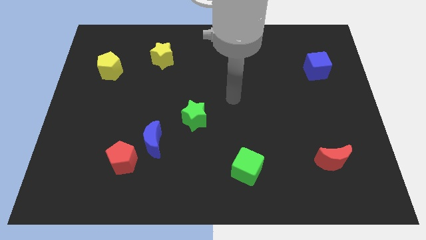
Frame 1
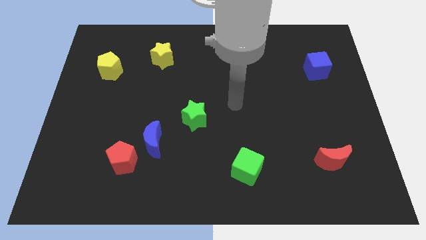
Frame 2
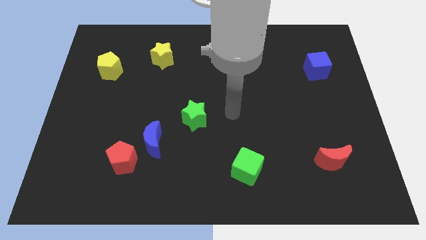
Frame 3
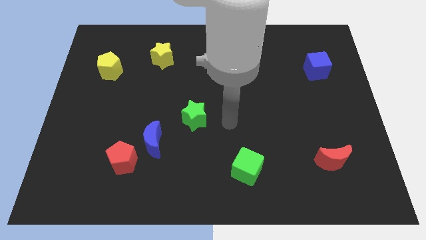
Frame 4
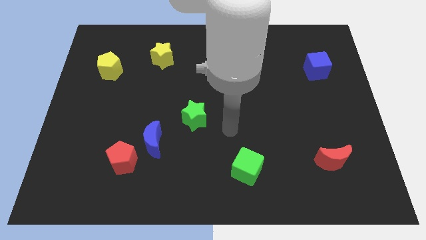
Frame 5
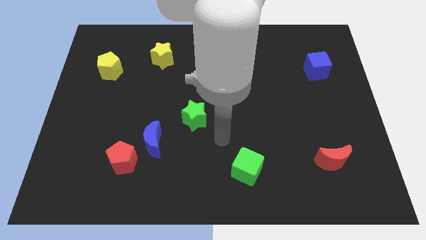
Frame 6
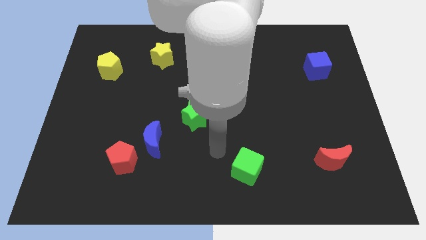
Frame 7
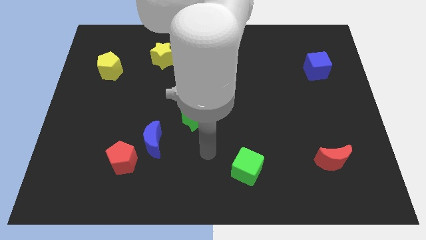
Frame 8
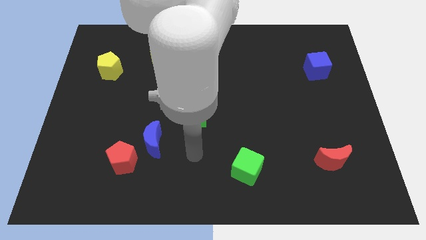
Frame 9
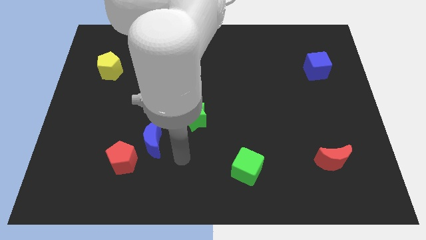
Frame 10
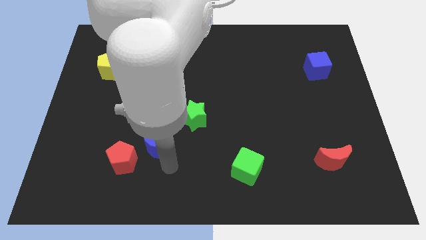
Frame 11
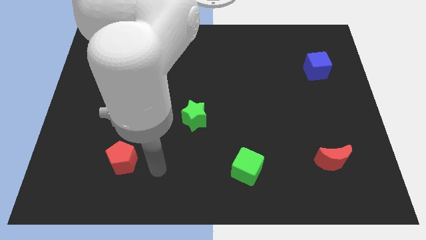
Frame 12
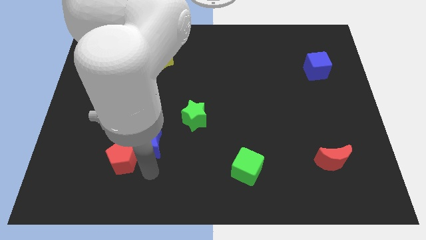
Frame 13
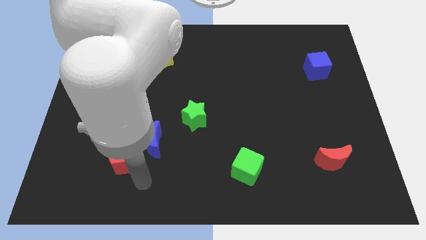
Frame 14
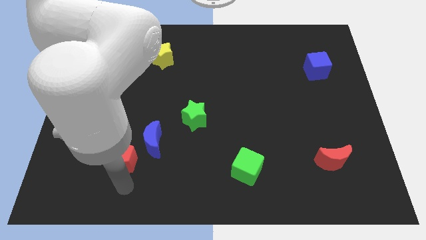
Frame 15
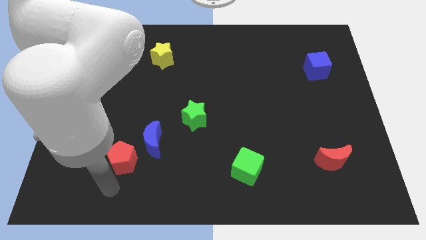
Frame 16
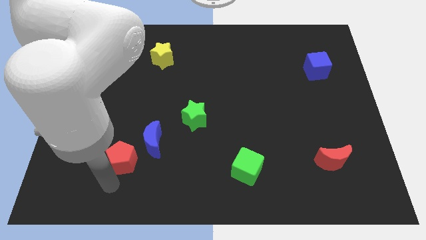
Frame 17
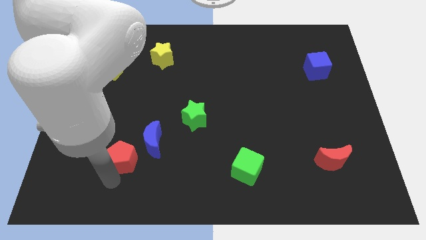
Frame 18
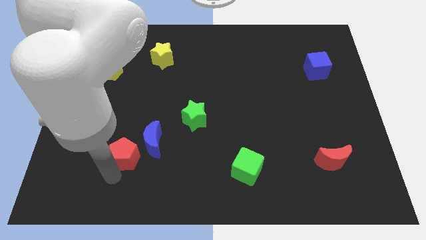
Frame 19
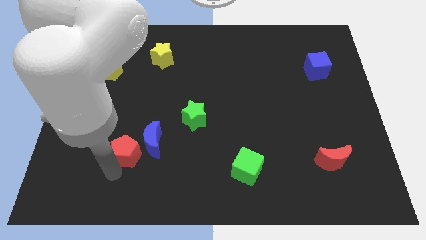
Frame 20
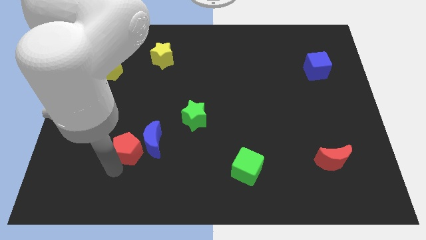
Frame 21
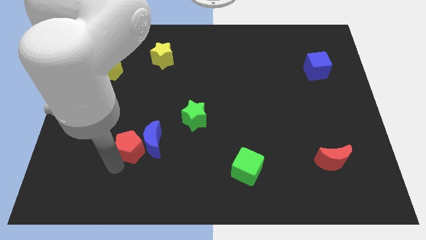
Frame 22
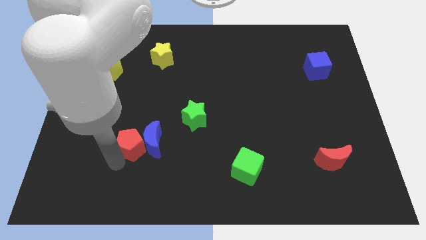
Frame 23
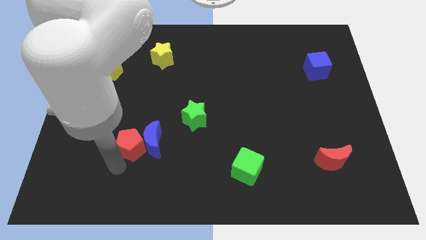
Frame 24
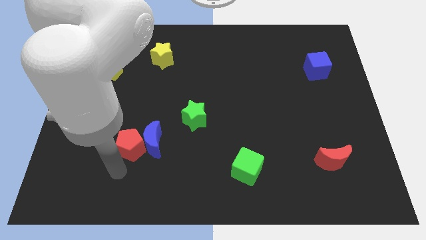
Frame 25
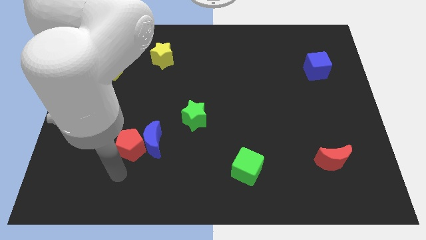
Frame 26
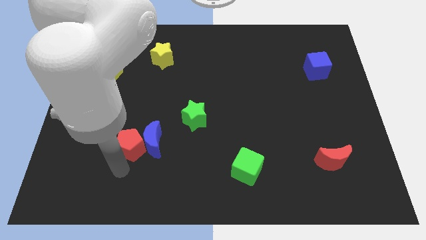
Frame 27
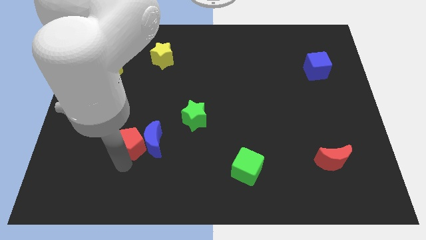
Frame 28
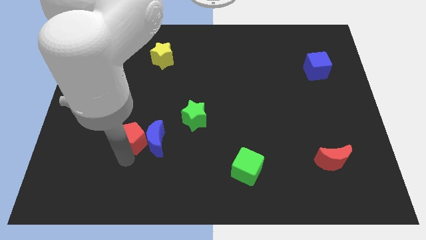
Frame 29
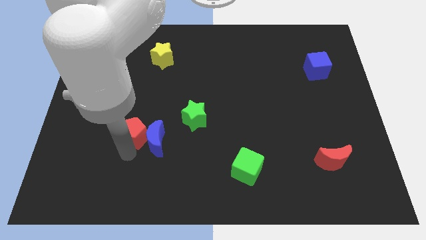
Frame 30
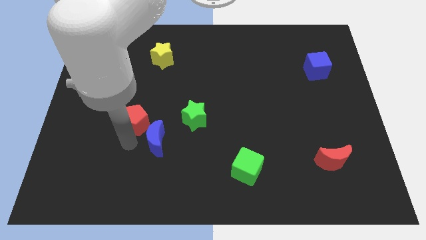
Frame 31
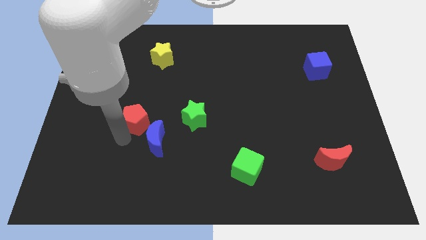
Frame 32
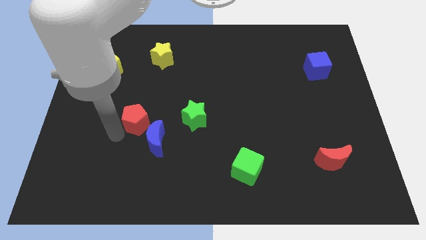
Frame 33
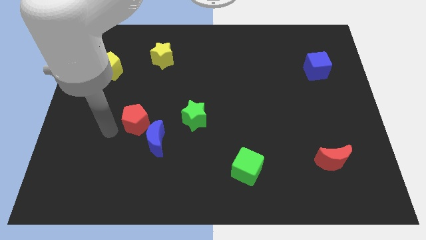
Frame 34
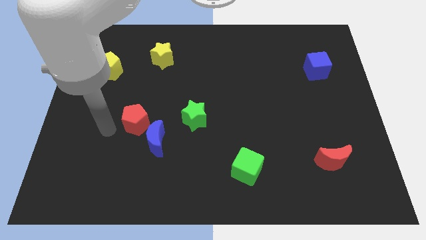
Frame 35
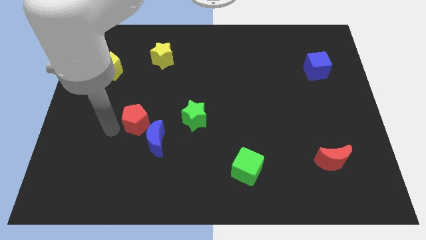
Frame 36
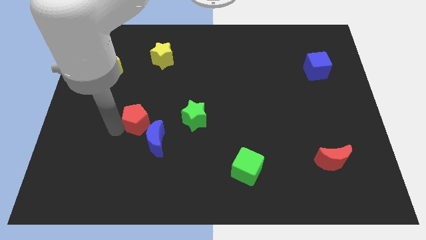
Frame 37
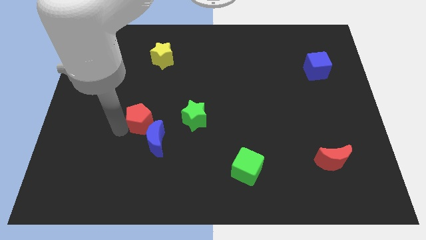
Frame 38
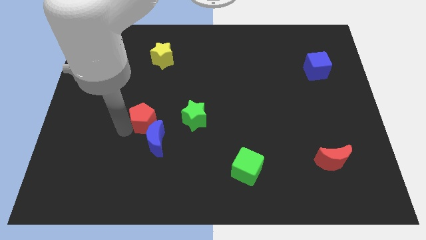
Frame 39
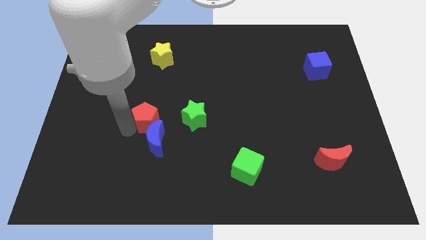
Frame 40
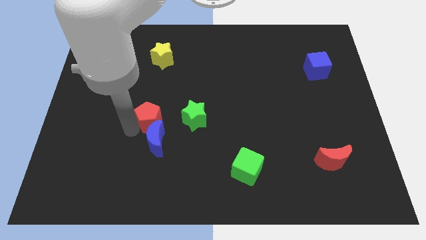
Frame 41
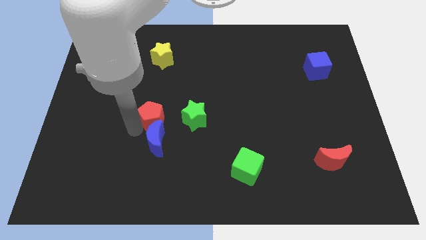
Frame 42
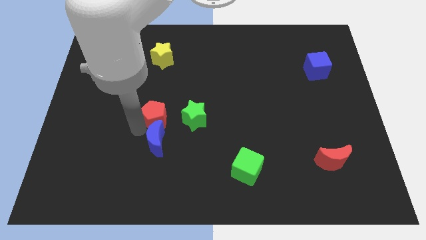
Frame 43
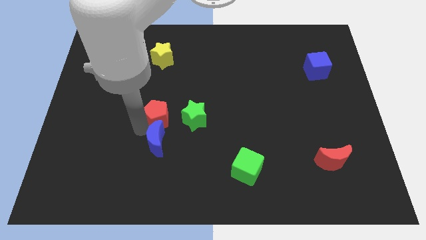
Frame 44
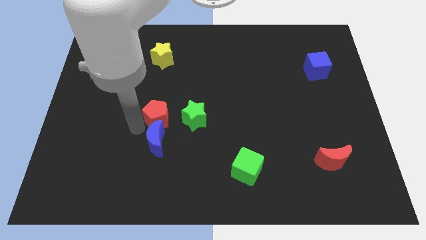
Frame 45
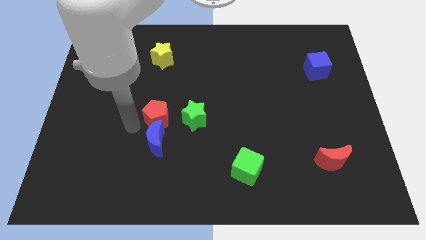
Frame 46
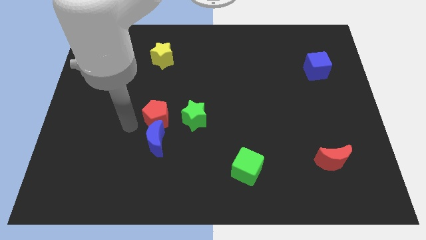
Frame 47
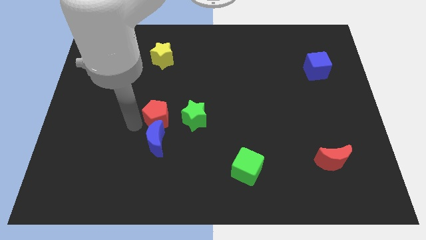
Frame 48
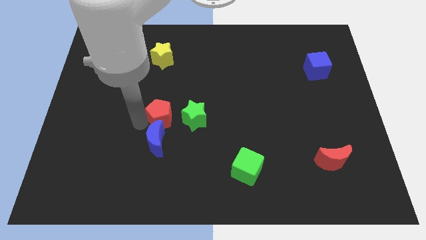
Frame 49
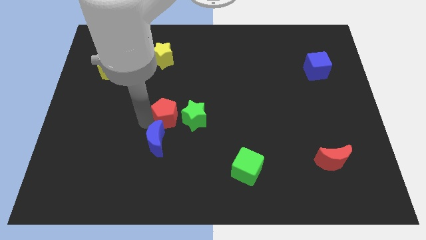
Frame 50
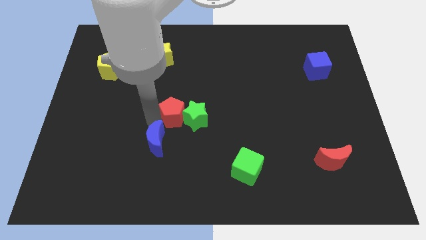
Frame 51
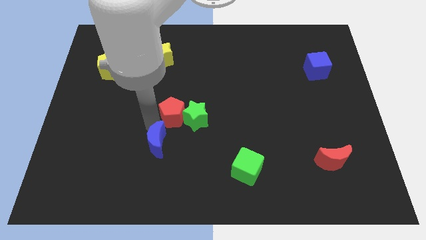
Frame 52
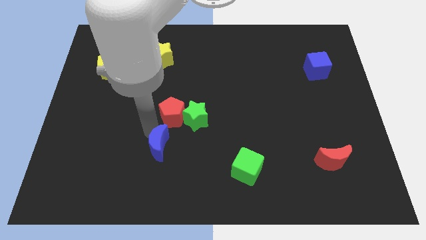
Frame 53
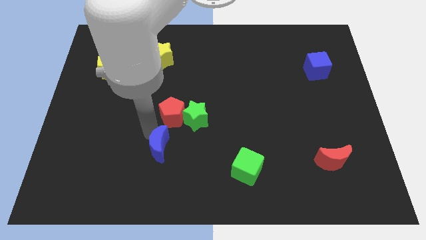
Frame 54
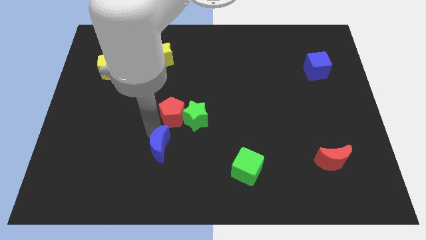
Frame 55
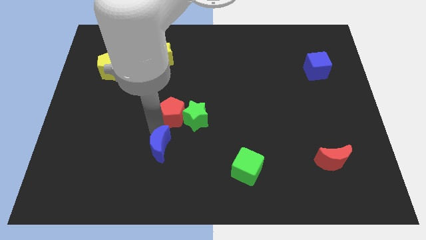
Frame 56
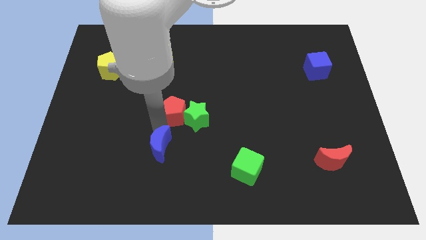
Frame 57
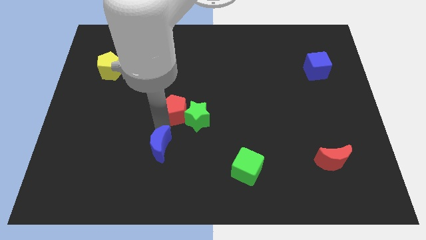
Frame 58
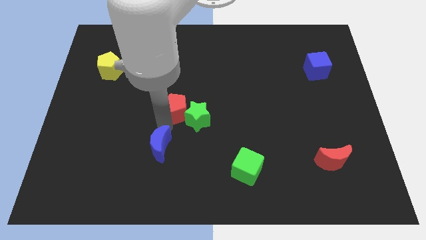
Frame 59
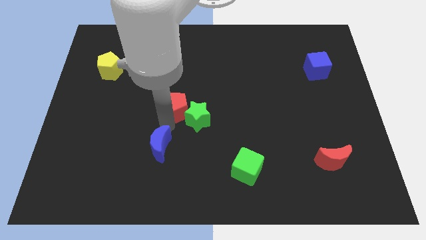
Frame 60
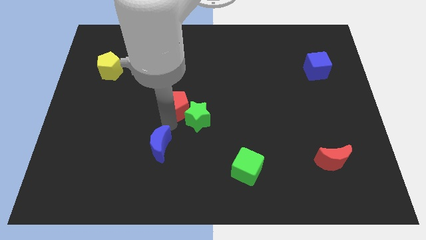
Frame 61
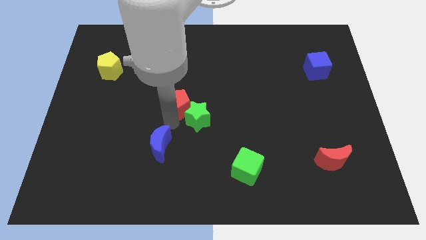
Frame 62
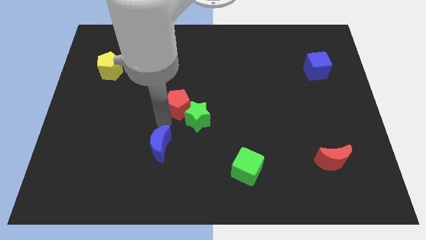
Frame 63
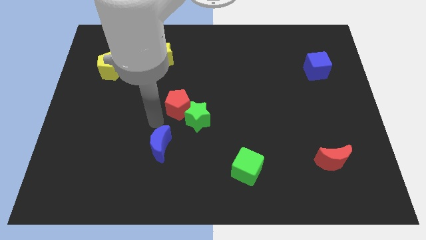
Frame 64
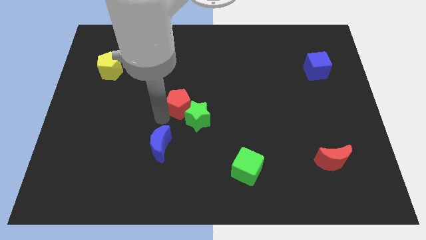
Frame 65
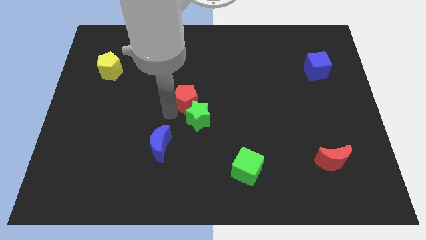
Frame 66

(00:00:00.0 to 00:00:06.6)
slide the red pentagon upwards and then right

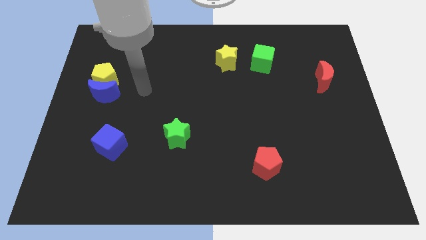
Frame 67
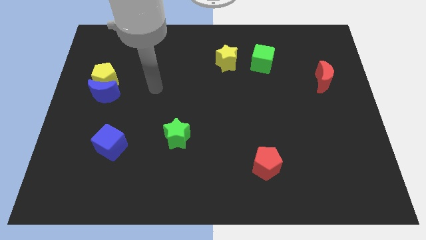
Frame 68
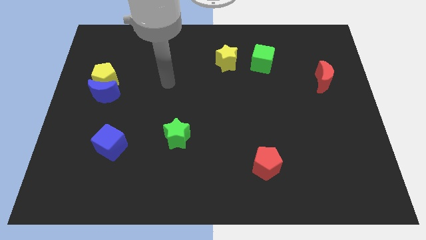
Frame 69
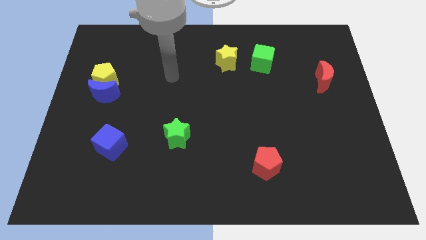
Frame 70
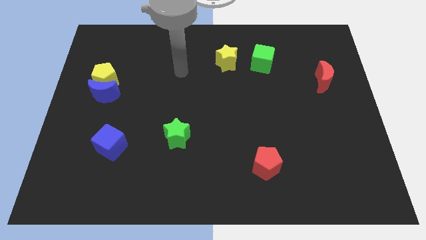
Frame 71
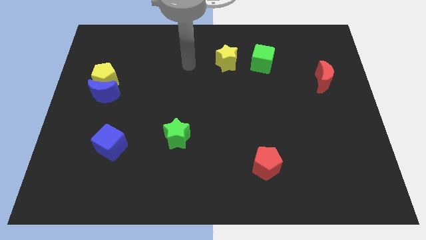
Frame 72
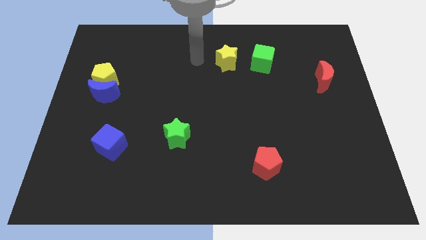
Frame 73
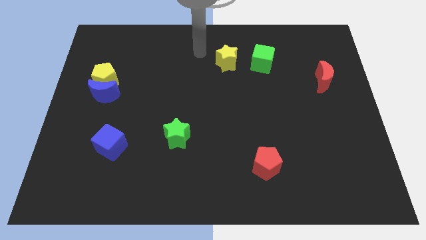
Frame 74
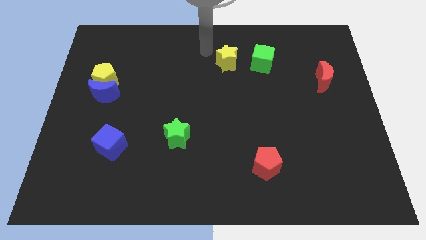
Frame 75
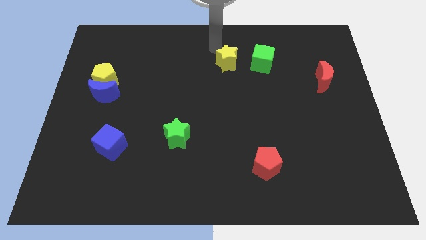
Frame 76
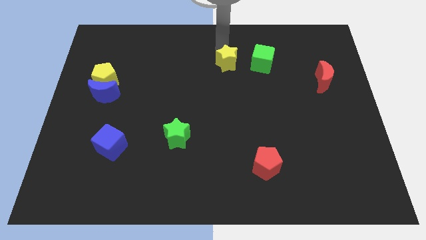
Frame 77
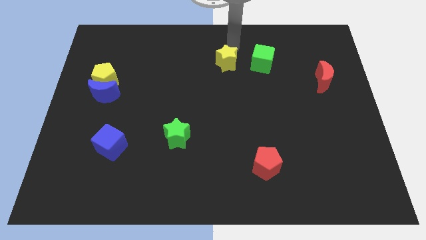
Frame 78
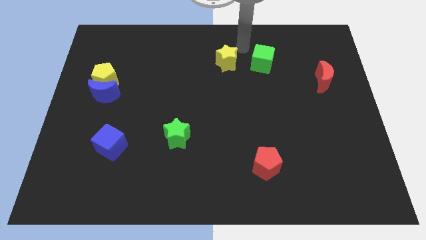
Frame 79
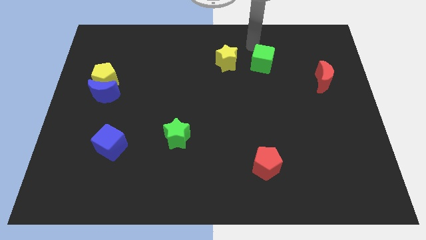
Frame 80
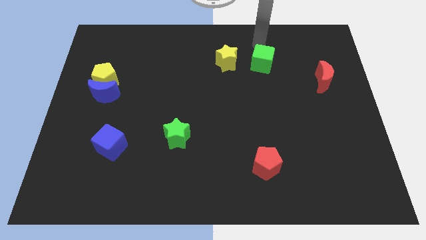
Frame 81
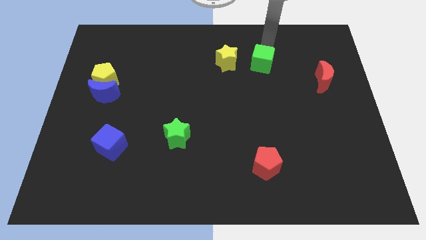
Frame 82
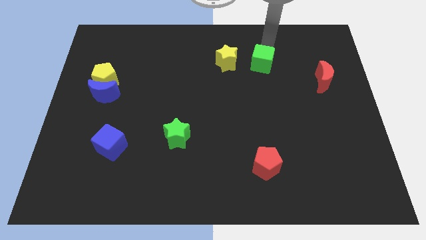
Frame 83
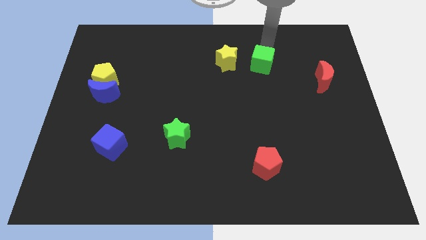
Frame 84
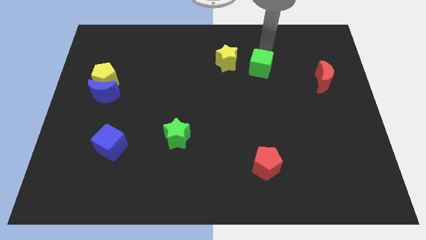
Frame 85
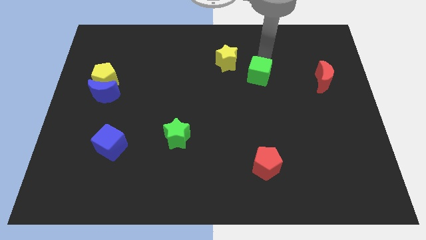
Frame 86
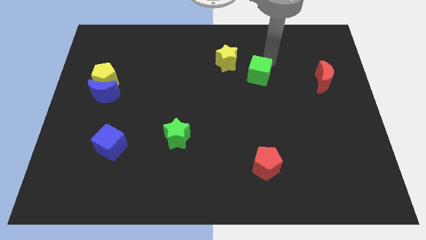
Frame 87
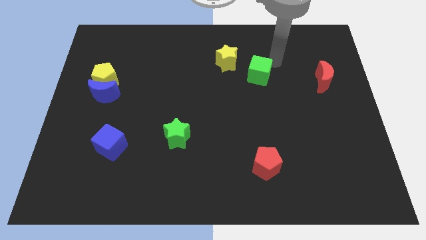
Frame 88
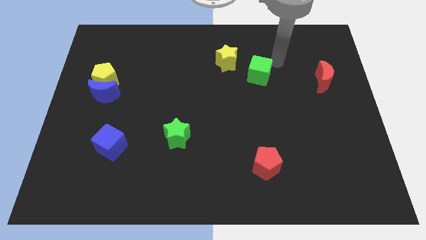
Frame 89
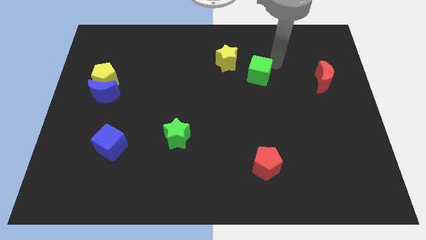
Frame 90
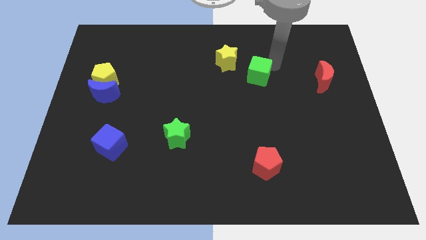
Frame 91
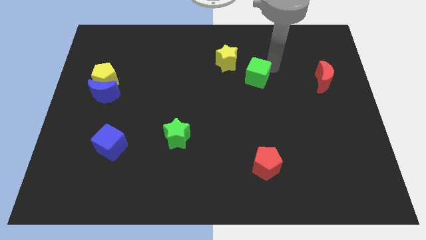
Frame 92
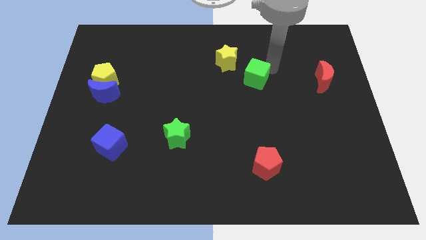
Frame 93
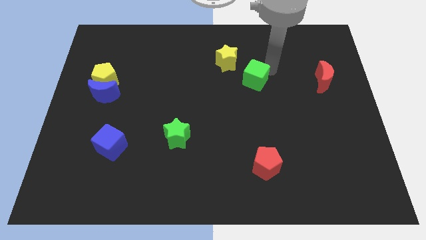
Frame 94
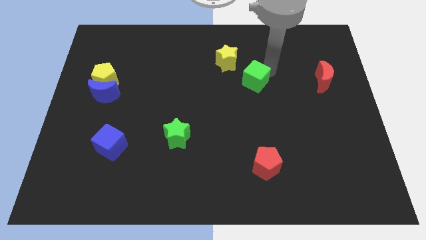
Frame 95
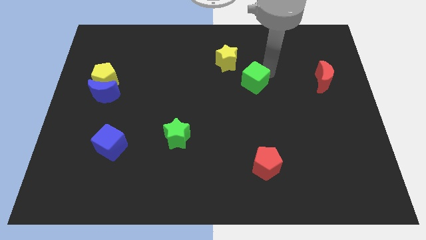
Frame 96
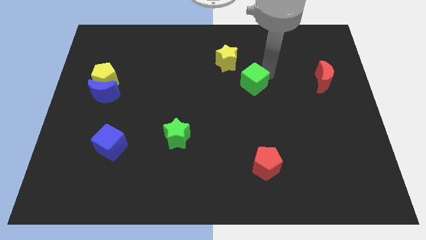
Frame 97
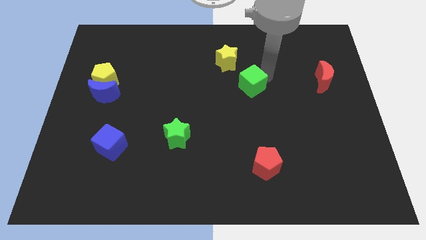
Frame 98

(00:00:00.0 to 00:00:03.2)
slide the green cube a little diagonally down and left
